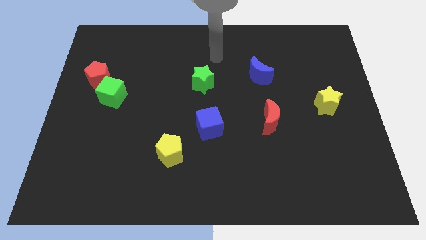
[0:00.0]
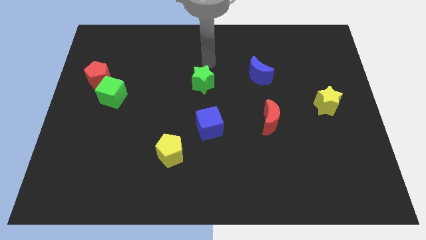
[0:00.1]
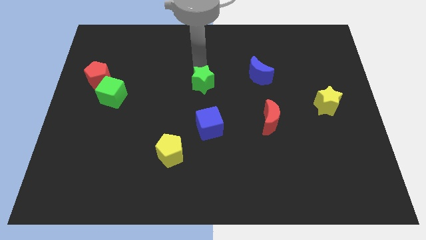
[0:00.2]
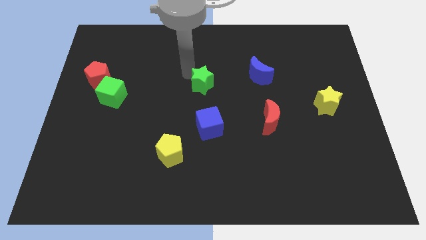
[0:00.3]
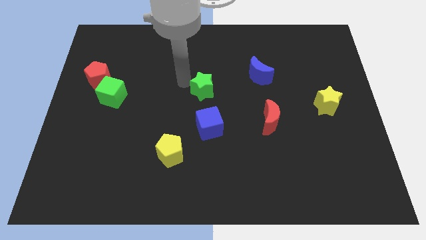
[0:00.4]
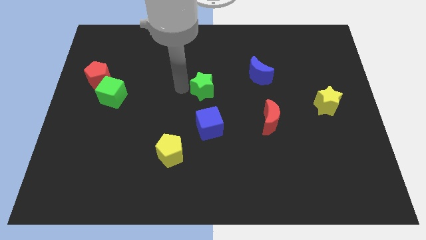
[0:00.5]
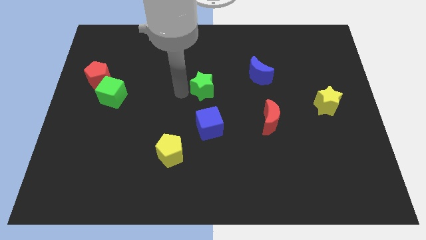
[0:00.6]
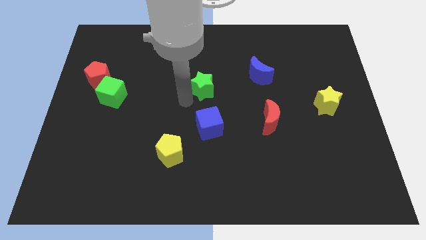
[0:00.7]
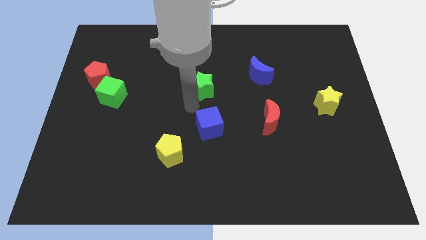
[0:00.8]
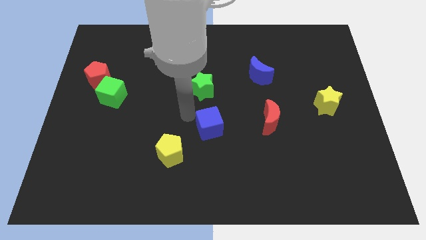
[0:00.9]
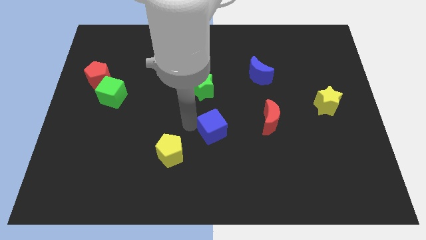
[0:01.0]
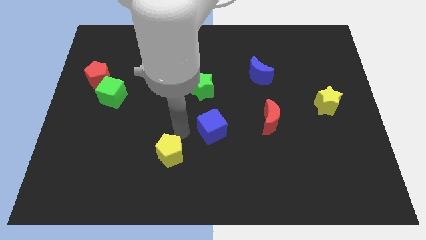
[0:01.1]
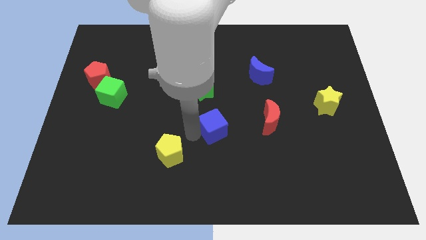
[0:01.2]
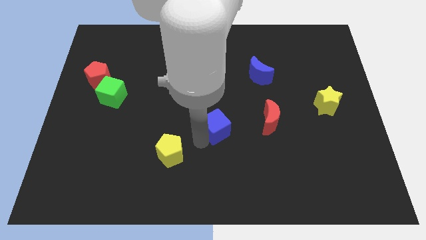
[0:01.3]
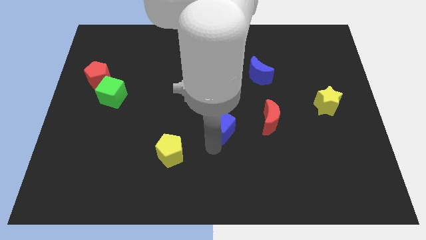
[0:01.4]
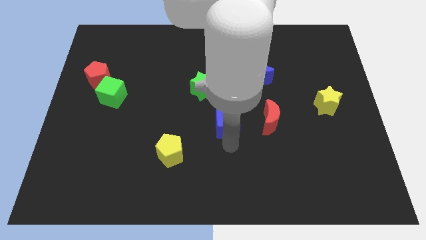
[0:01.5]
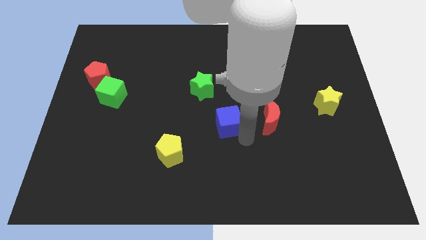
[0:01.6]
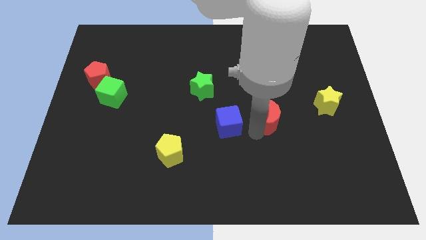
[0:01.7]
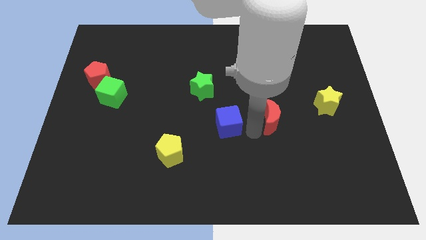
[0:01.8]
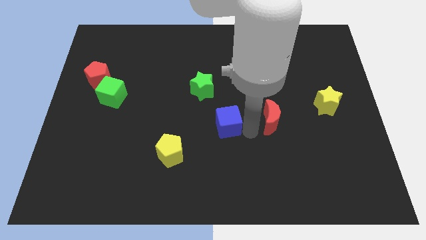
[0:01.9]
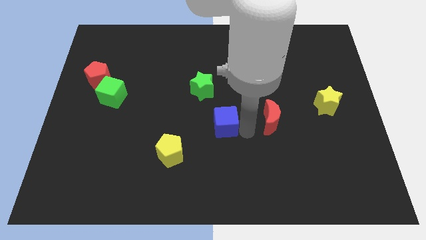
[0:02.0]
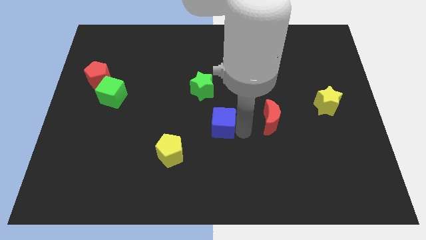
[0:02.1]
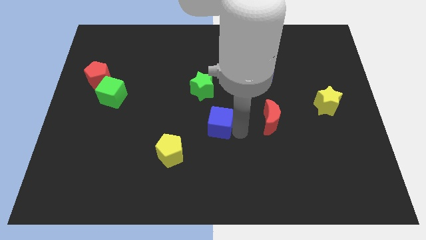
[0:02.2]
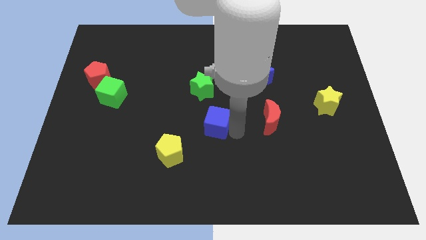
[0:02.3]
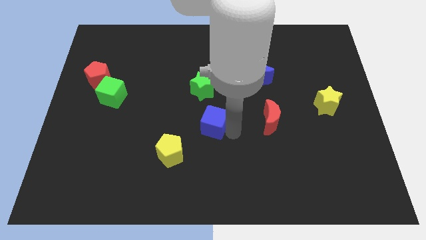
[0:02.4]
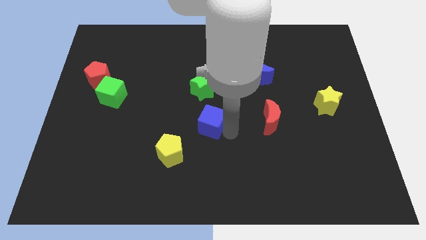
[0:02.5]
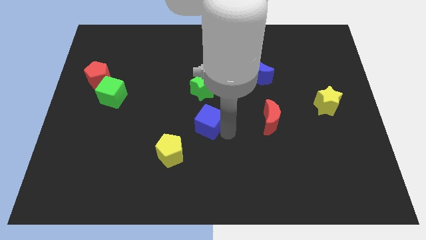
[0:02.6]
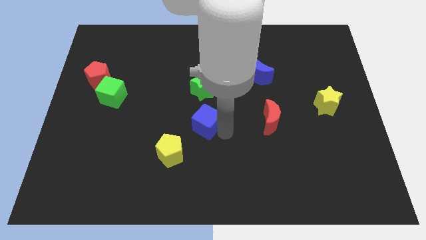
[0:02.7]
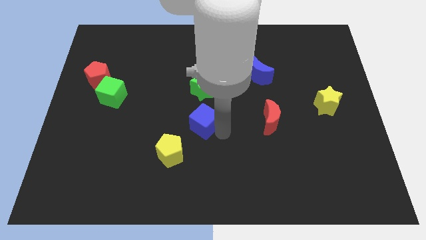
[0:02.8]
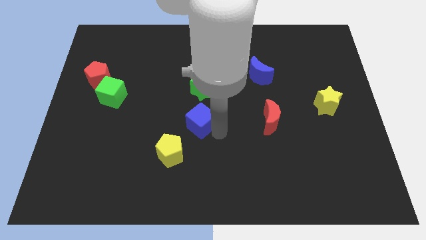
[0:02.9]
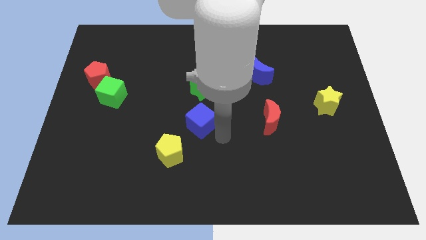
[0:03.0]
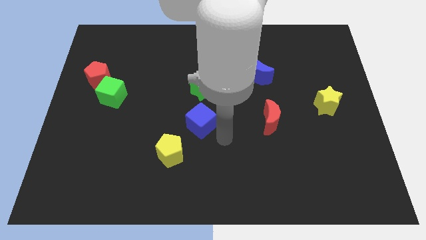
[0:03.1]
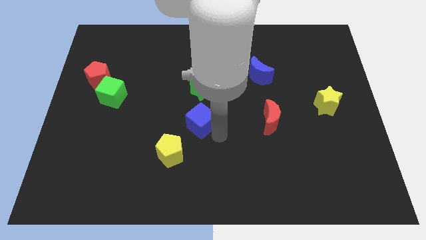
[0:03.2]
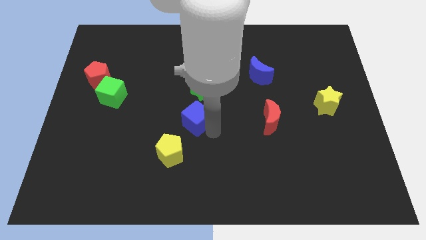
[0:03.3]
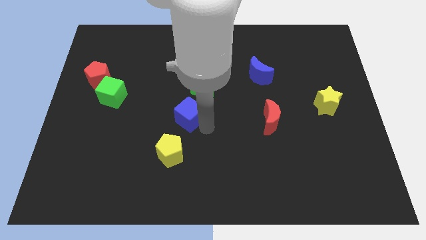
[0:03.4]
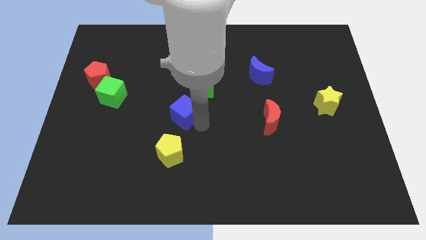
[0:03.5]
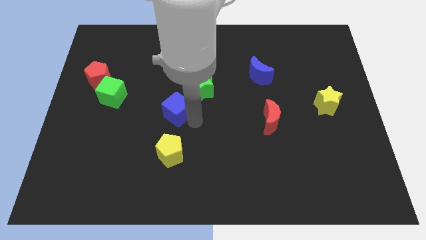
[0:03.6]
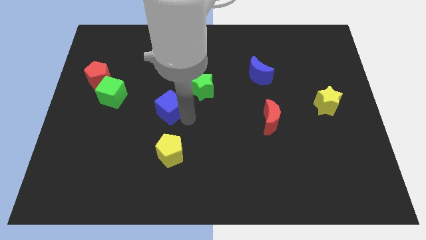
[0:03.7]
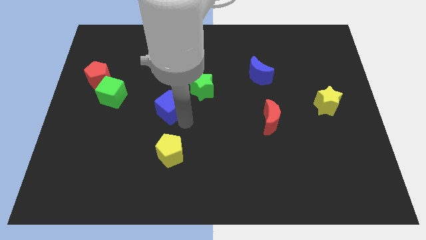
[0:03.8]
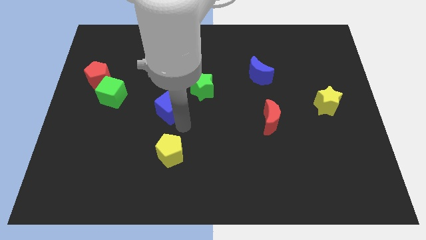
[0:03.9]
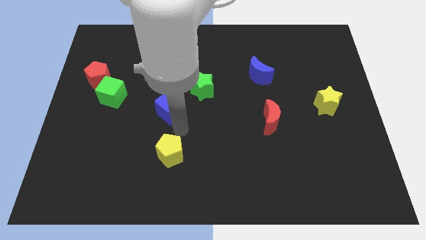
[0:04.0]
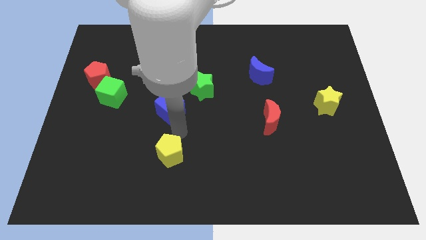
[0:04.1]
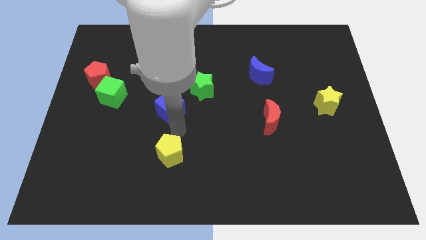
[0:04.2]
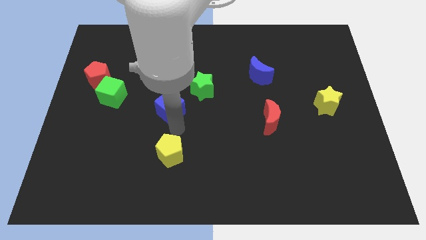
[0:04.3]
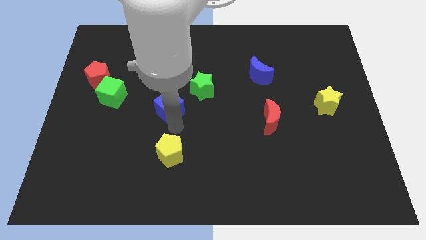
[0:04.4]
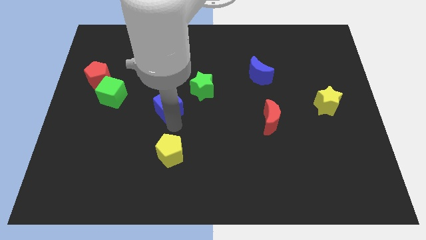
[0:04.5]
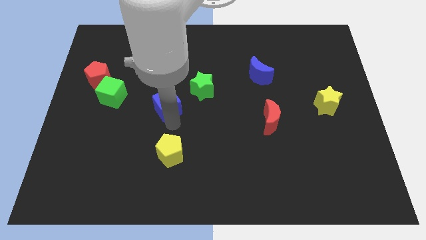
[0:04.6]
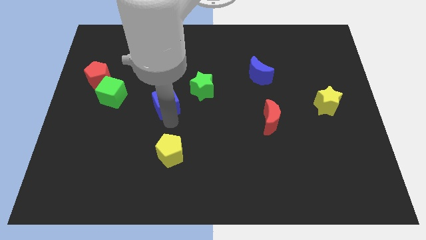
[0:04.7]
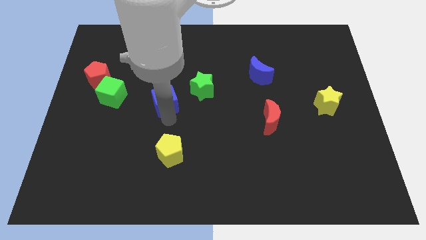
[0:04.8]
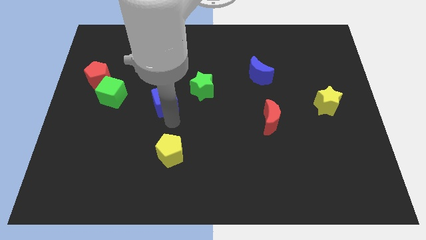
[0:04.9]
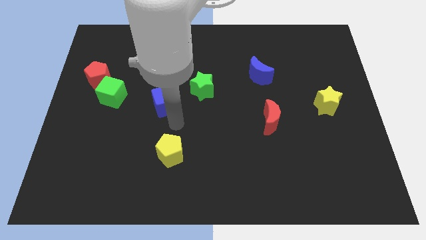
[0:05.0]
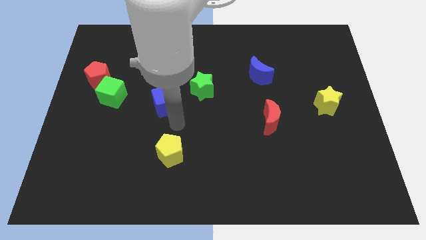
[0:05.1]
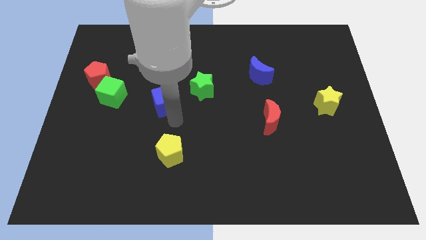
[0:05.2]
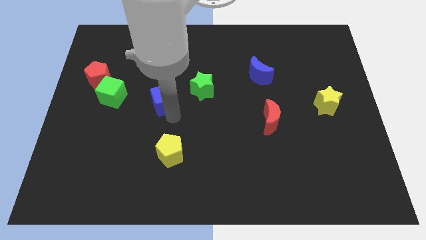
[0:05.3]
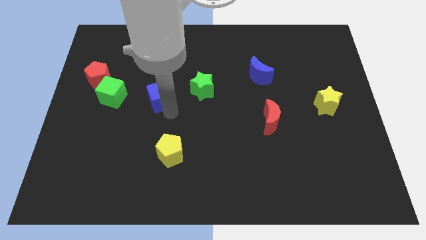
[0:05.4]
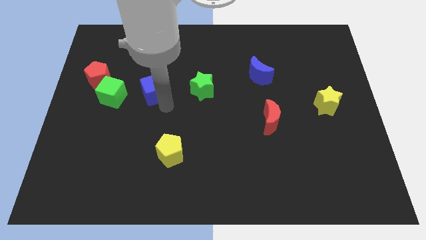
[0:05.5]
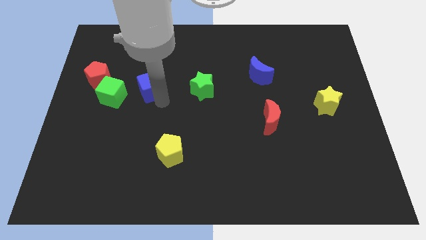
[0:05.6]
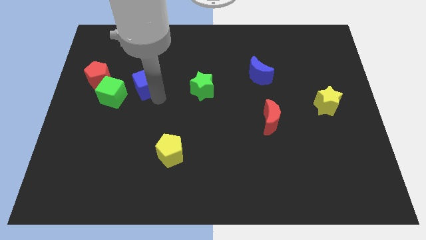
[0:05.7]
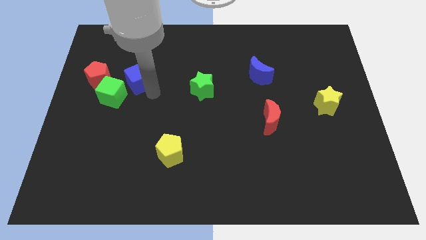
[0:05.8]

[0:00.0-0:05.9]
slide the blue cube up and then to the left

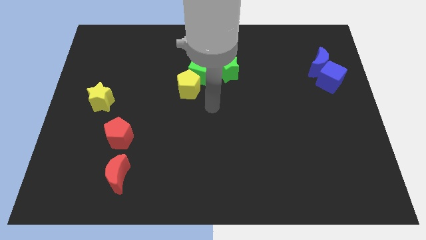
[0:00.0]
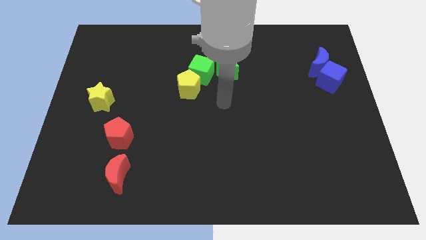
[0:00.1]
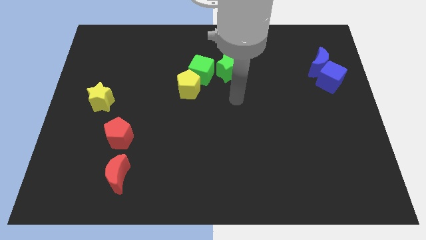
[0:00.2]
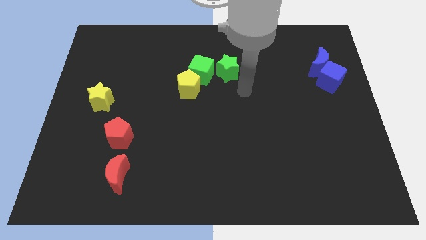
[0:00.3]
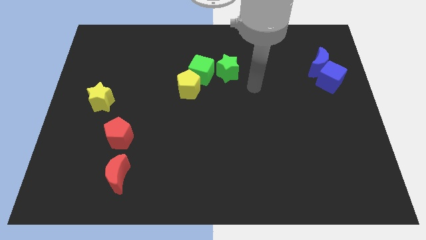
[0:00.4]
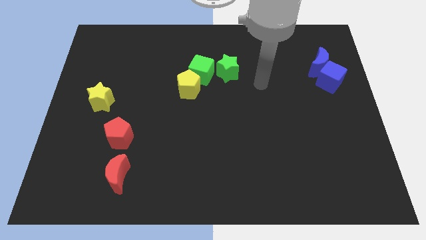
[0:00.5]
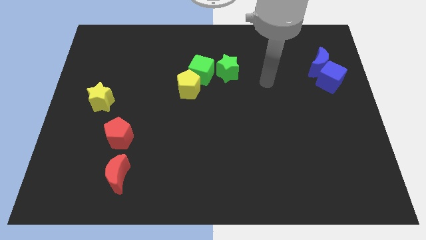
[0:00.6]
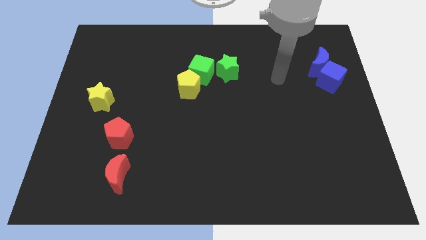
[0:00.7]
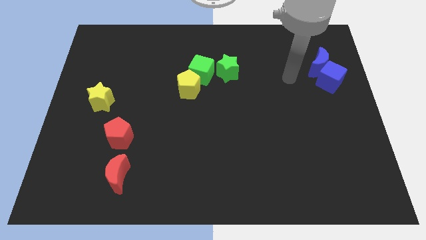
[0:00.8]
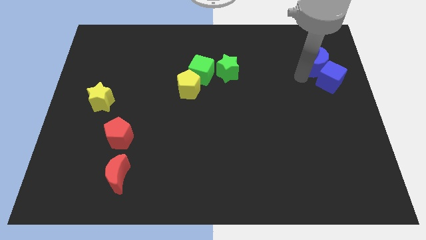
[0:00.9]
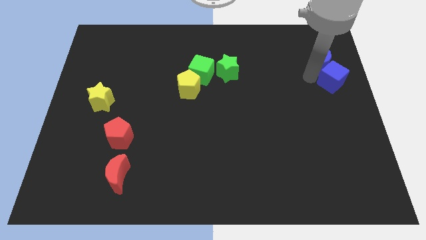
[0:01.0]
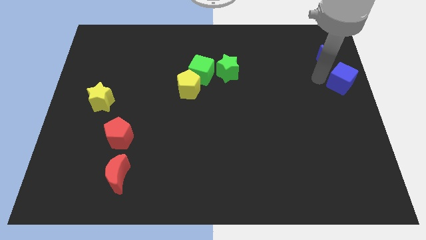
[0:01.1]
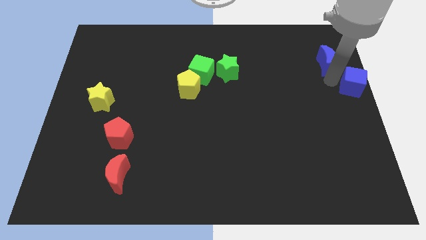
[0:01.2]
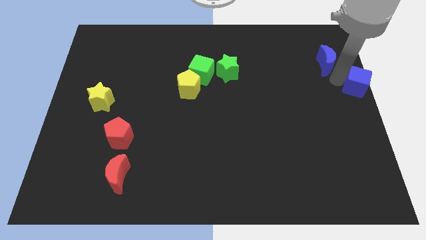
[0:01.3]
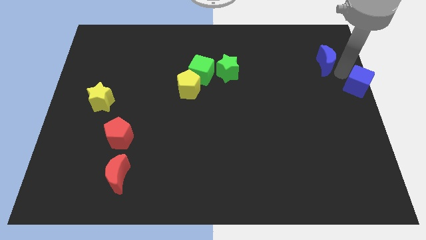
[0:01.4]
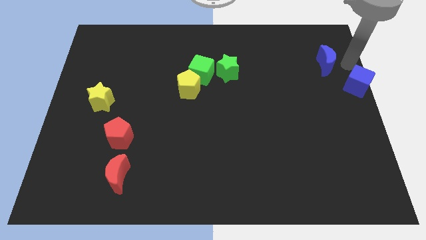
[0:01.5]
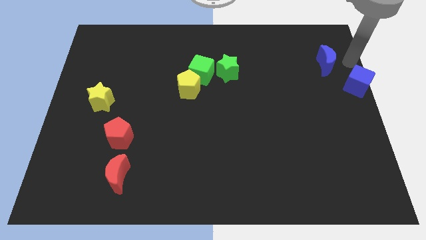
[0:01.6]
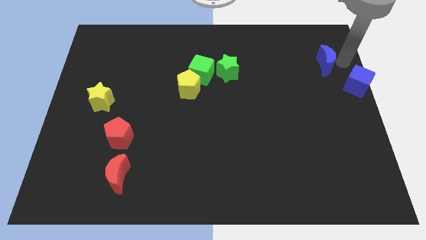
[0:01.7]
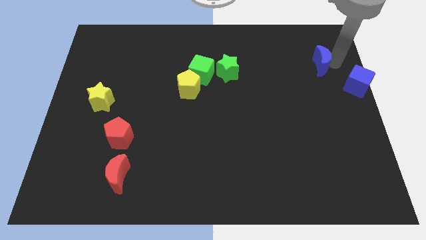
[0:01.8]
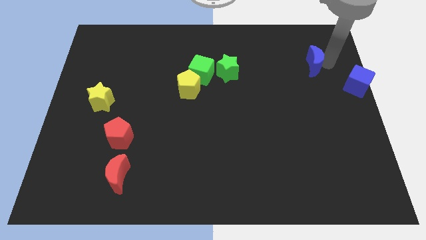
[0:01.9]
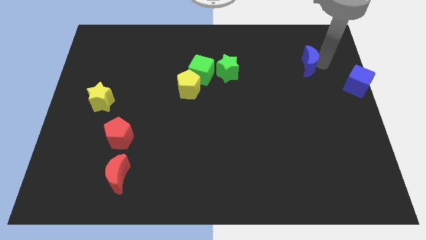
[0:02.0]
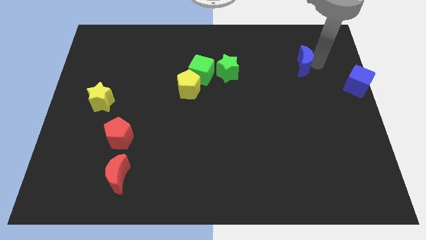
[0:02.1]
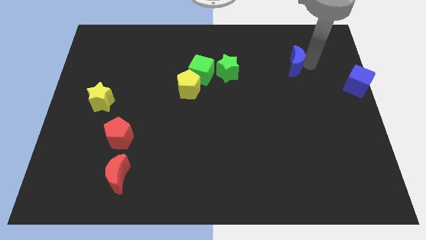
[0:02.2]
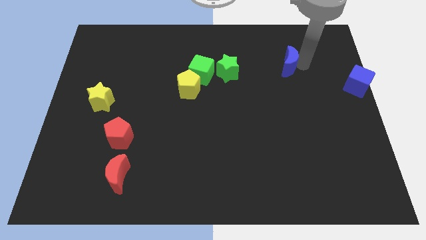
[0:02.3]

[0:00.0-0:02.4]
move the blue moon left slightly
